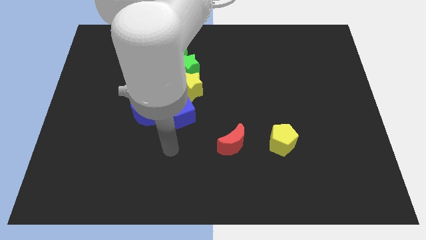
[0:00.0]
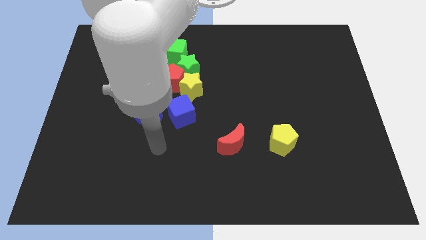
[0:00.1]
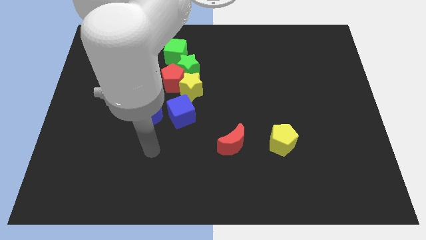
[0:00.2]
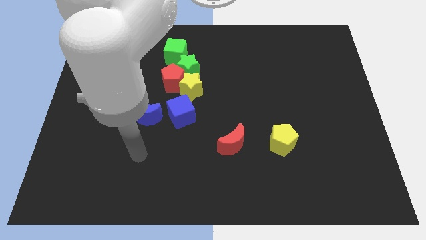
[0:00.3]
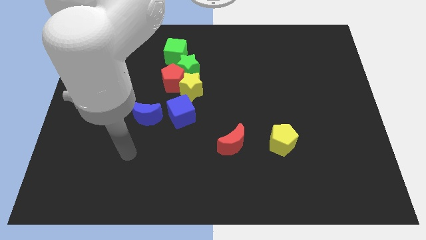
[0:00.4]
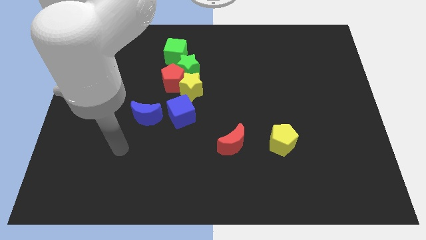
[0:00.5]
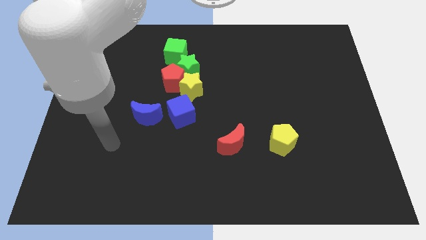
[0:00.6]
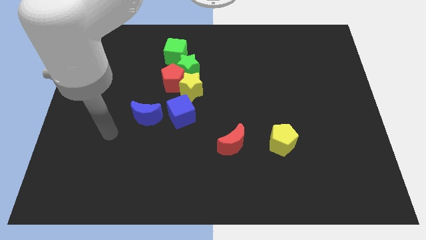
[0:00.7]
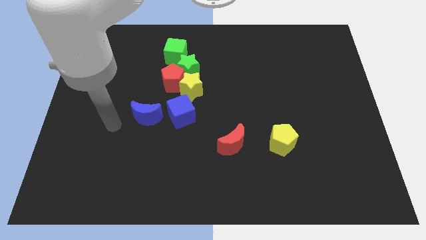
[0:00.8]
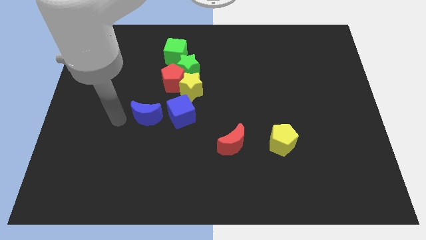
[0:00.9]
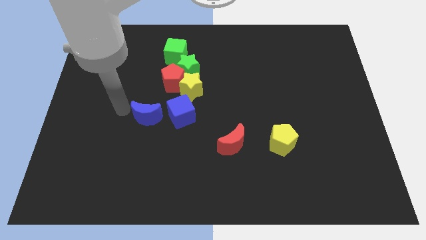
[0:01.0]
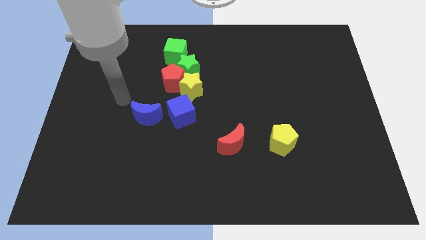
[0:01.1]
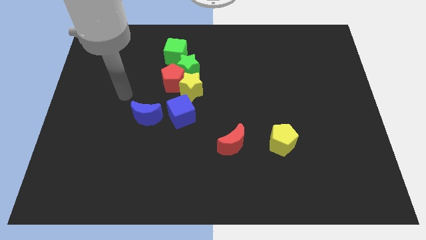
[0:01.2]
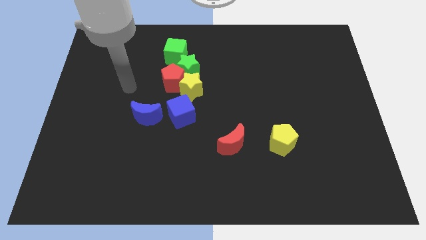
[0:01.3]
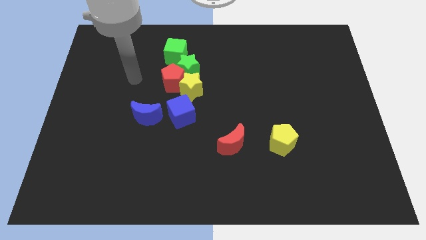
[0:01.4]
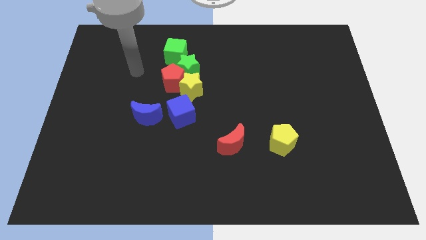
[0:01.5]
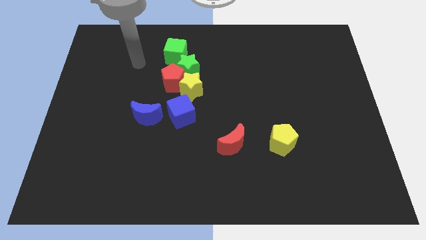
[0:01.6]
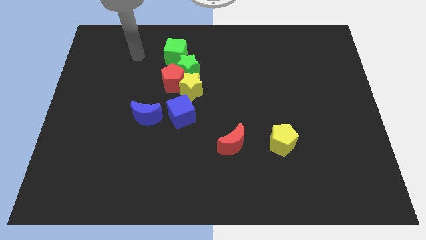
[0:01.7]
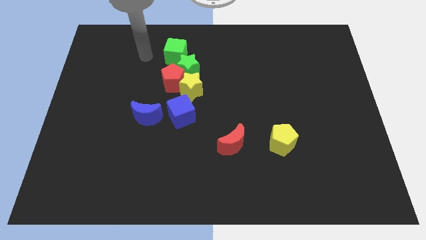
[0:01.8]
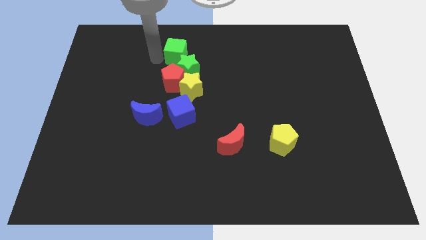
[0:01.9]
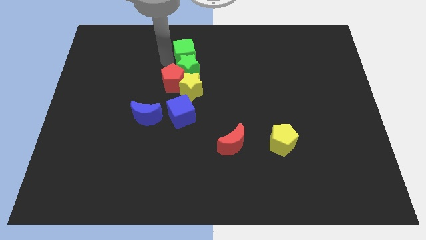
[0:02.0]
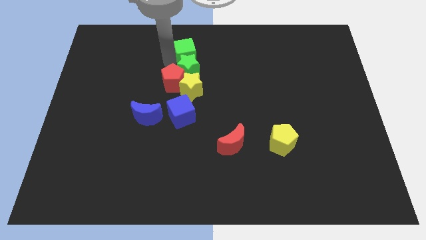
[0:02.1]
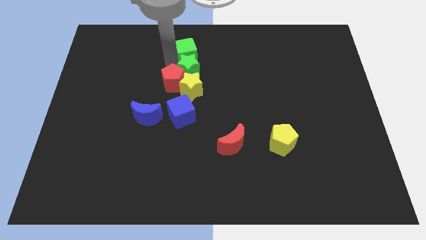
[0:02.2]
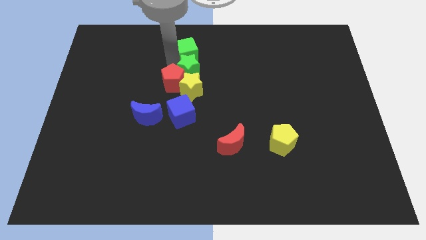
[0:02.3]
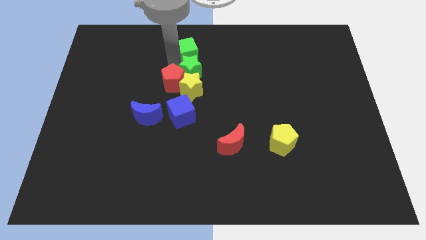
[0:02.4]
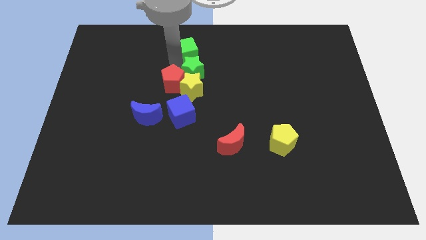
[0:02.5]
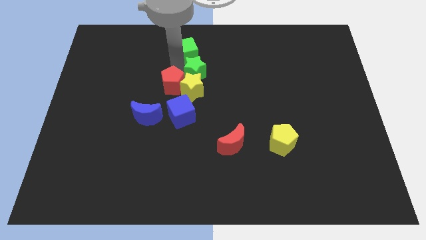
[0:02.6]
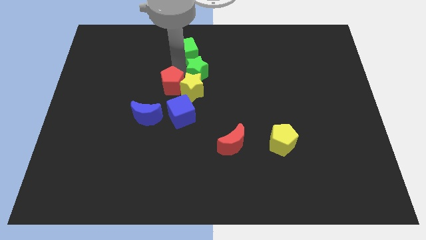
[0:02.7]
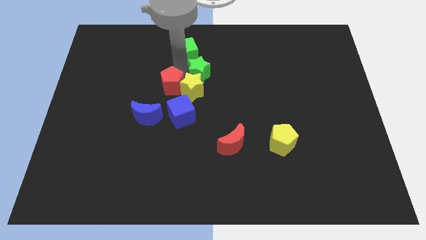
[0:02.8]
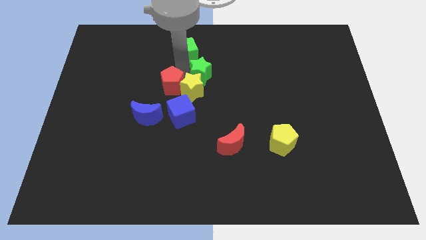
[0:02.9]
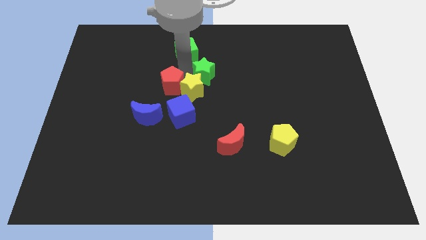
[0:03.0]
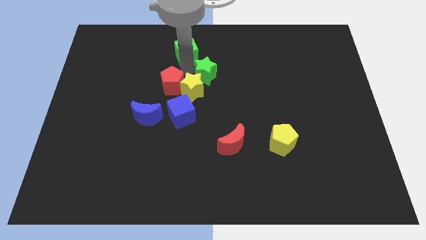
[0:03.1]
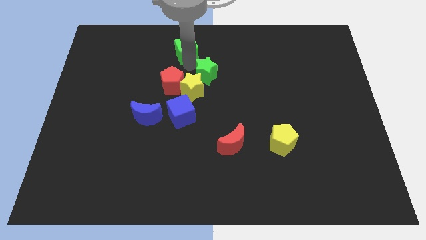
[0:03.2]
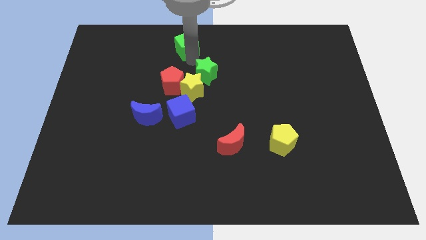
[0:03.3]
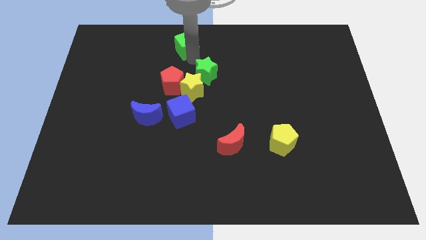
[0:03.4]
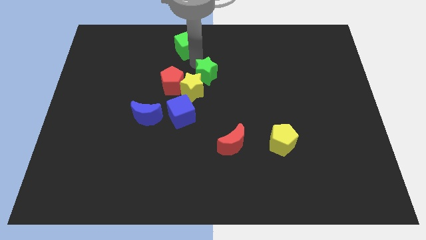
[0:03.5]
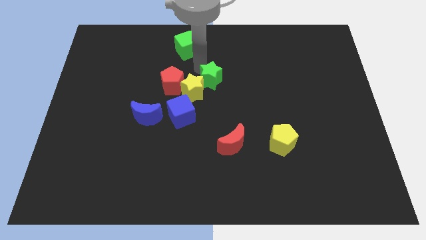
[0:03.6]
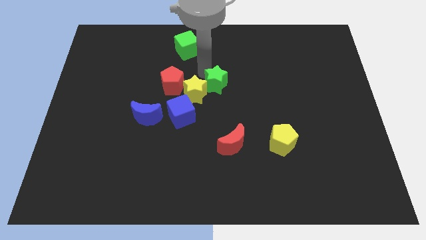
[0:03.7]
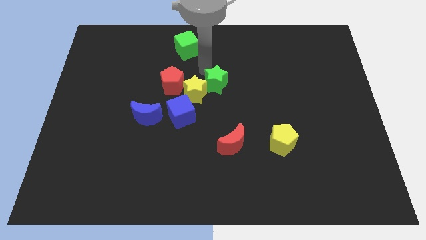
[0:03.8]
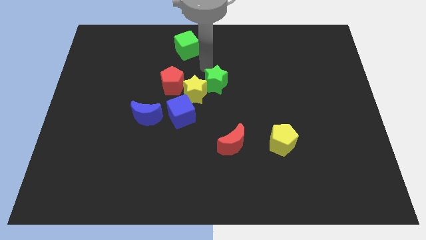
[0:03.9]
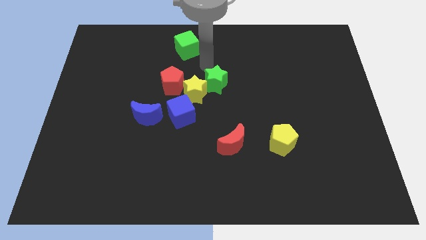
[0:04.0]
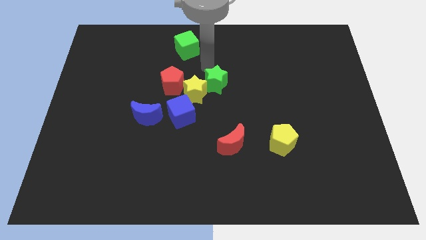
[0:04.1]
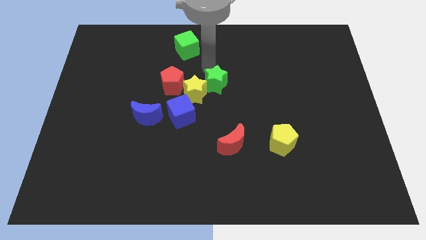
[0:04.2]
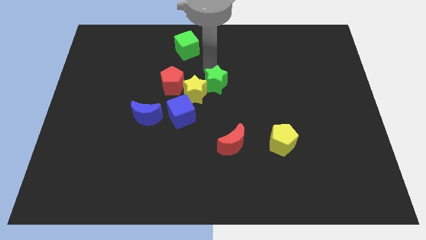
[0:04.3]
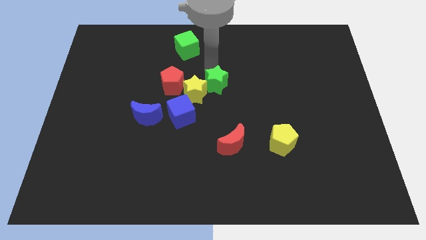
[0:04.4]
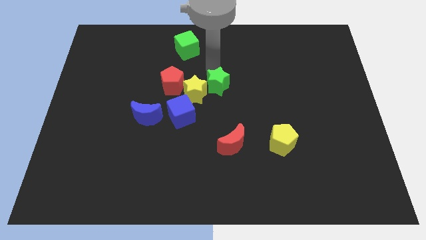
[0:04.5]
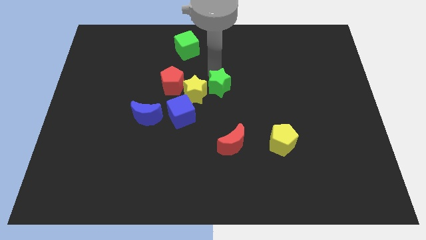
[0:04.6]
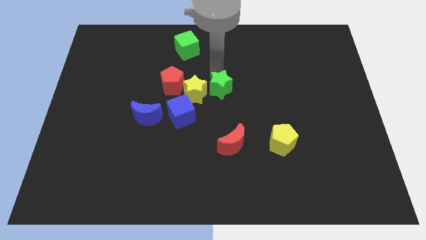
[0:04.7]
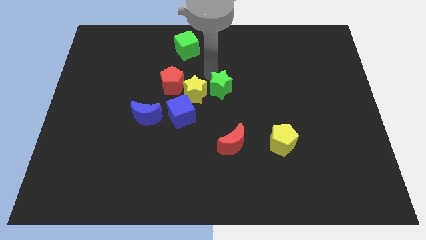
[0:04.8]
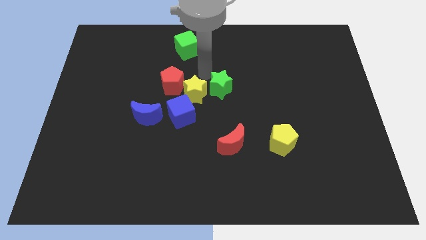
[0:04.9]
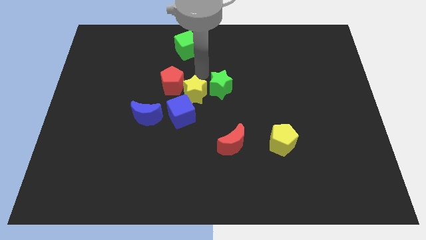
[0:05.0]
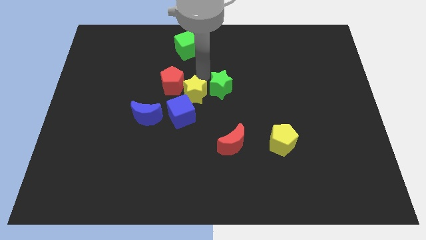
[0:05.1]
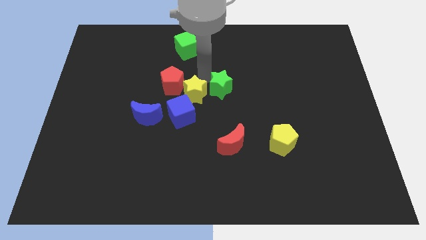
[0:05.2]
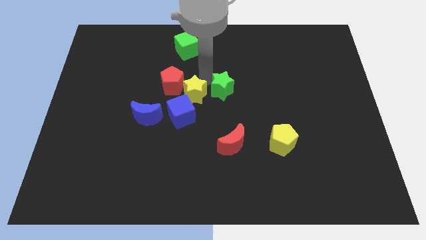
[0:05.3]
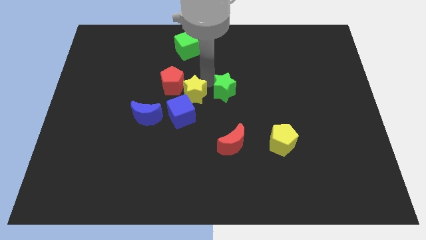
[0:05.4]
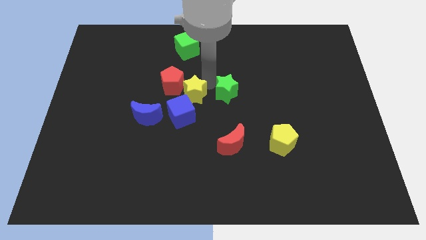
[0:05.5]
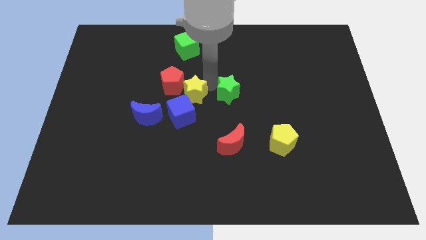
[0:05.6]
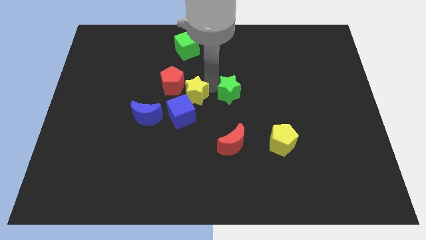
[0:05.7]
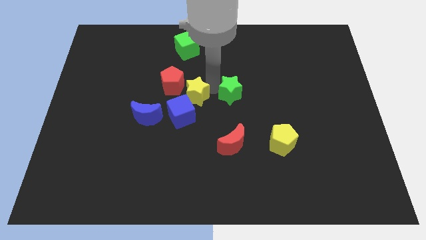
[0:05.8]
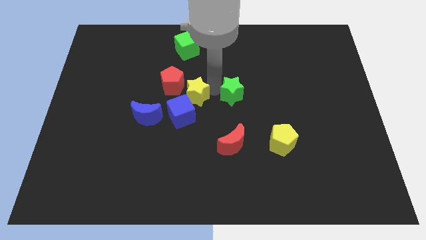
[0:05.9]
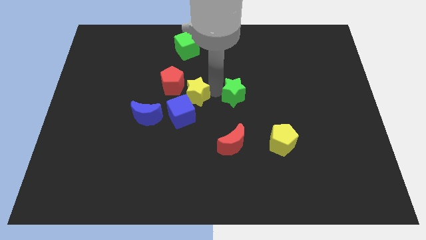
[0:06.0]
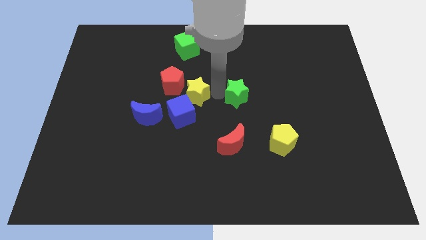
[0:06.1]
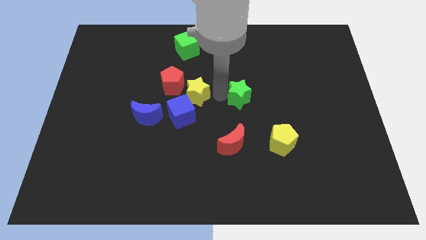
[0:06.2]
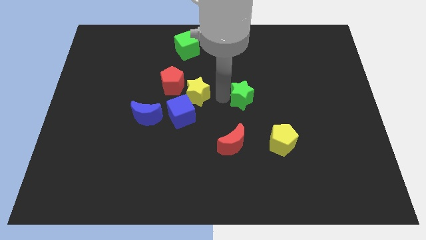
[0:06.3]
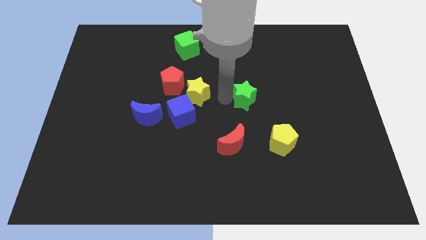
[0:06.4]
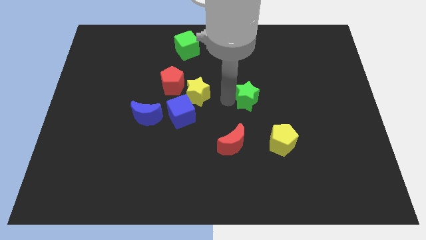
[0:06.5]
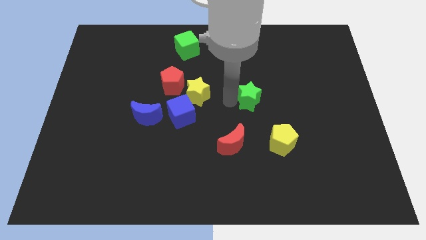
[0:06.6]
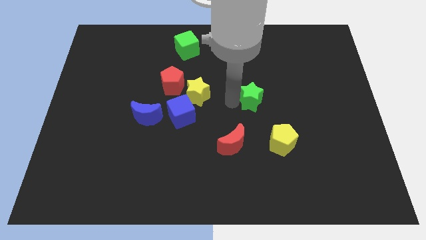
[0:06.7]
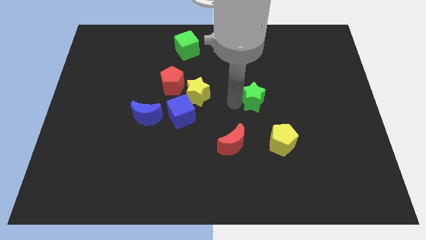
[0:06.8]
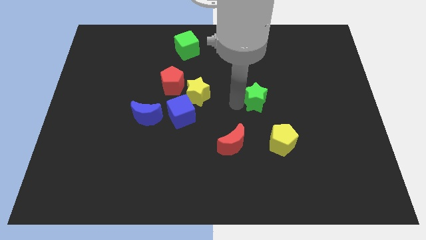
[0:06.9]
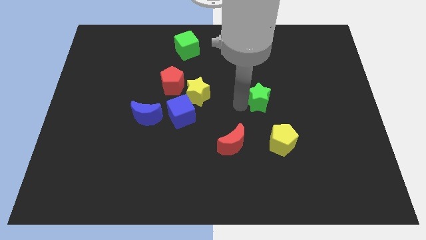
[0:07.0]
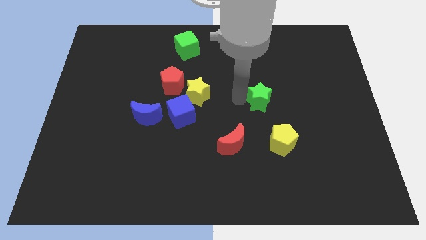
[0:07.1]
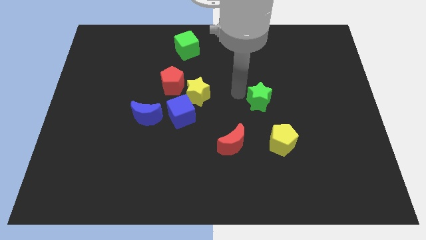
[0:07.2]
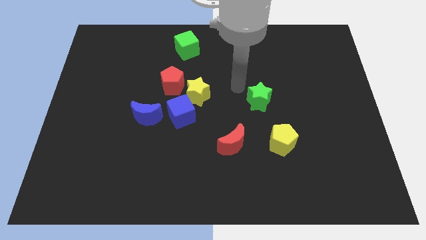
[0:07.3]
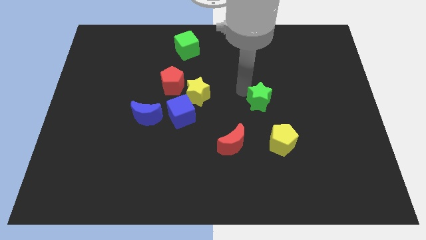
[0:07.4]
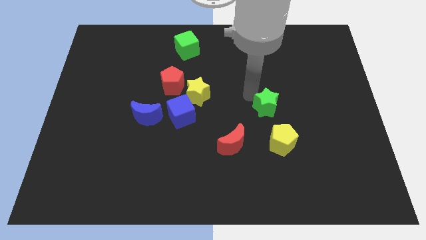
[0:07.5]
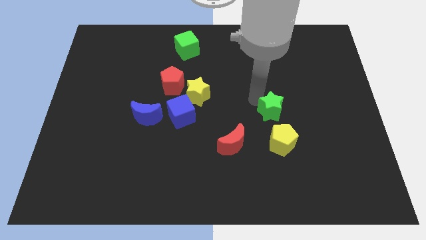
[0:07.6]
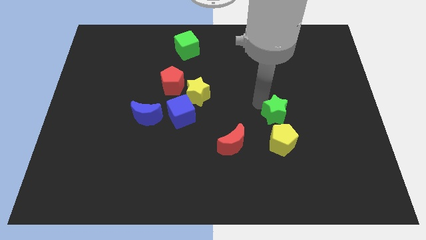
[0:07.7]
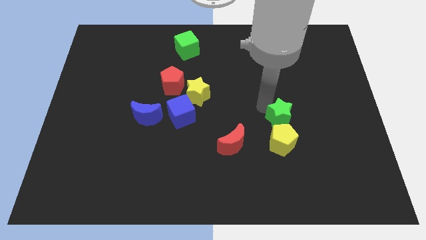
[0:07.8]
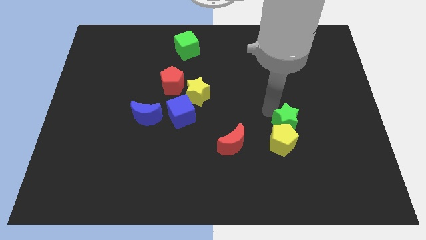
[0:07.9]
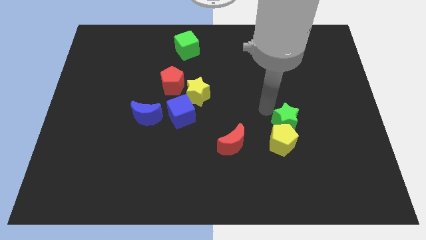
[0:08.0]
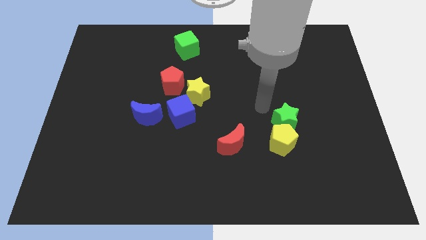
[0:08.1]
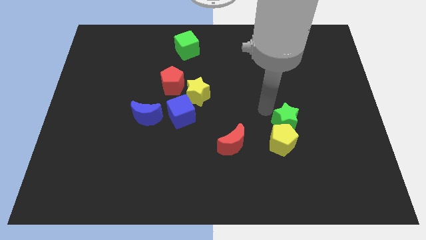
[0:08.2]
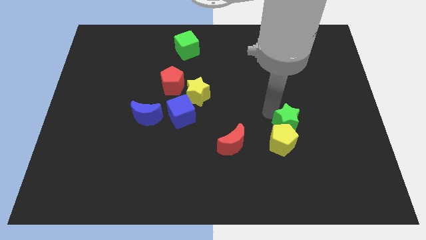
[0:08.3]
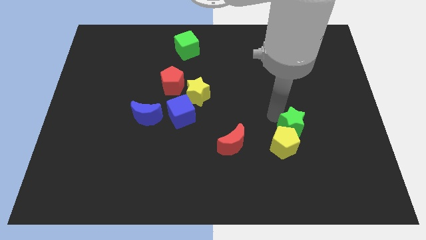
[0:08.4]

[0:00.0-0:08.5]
move the green star right of the red moon
